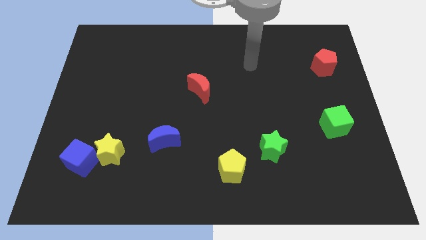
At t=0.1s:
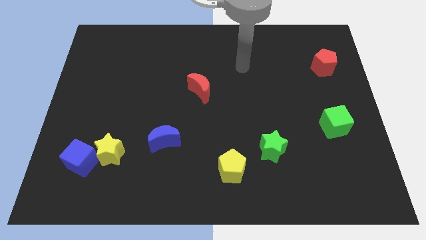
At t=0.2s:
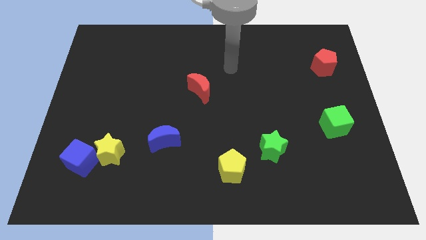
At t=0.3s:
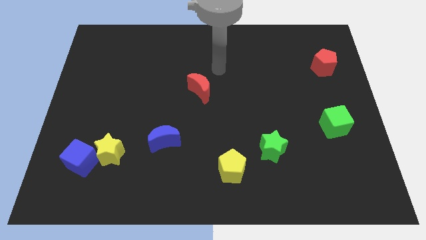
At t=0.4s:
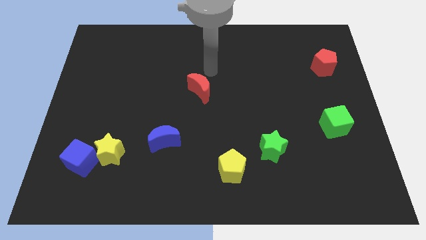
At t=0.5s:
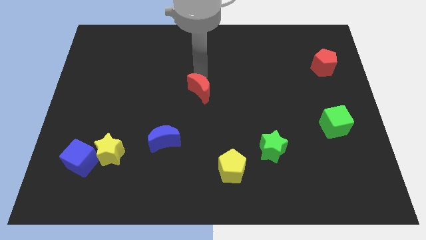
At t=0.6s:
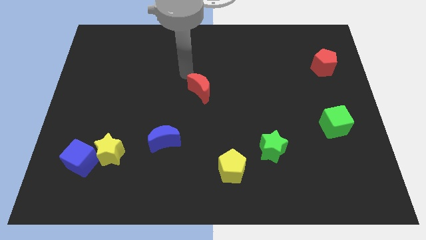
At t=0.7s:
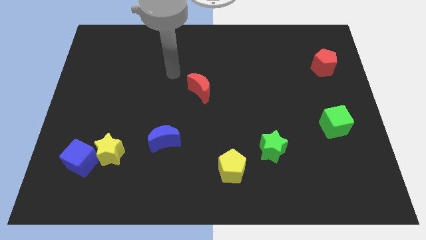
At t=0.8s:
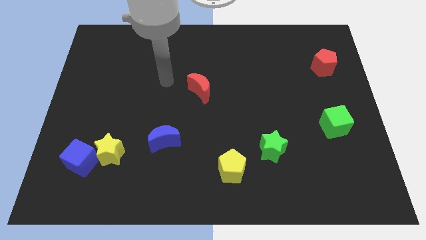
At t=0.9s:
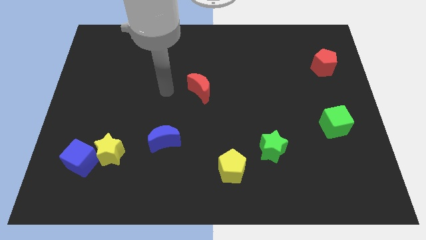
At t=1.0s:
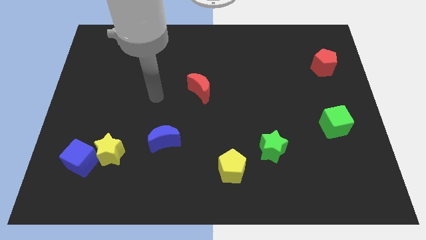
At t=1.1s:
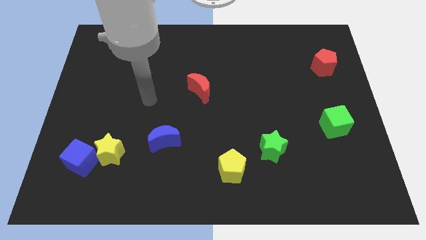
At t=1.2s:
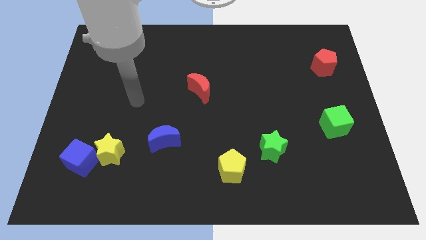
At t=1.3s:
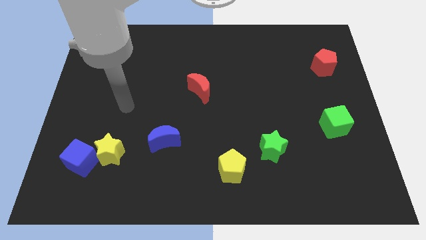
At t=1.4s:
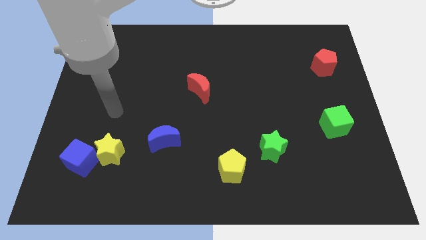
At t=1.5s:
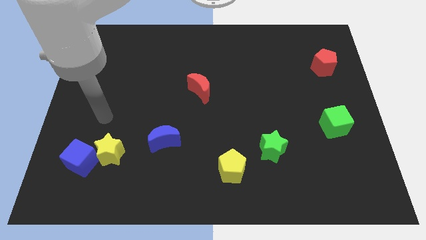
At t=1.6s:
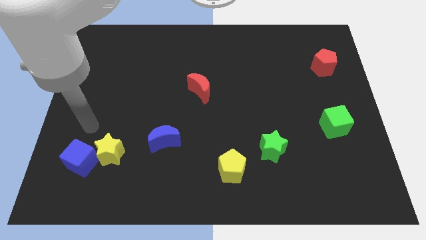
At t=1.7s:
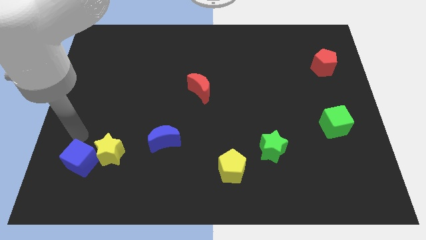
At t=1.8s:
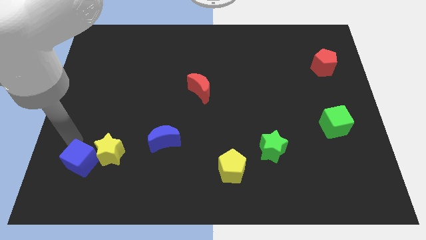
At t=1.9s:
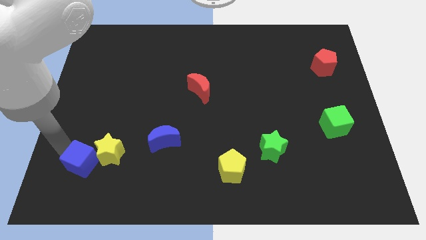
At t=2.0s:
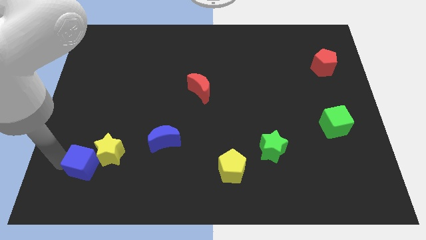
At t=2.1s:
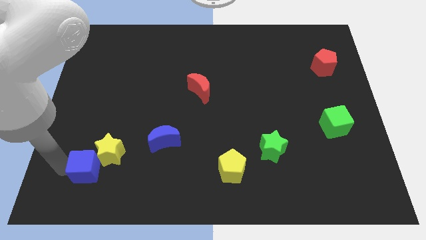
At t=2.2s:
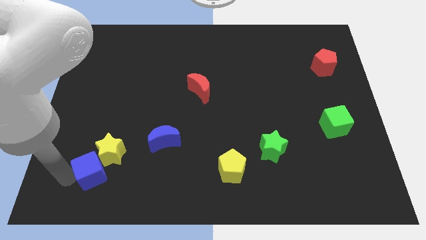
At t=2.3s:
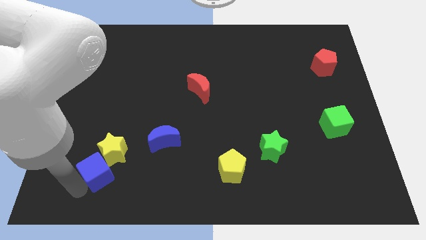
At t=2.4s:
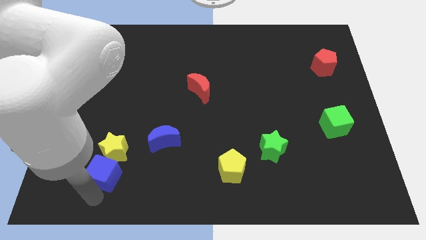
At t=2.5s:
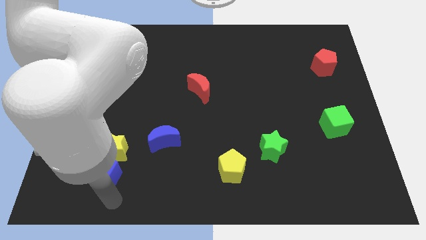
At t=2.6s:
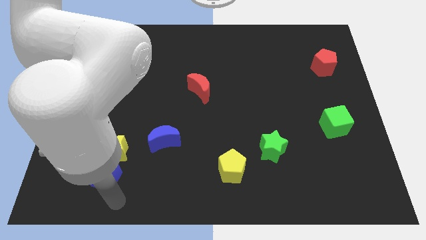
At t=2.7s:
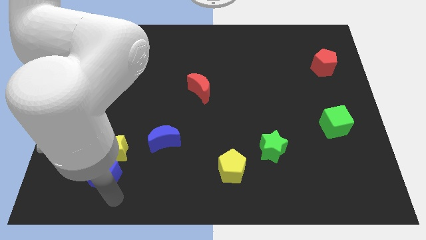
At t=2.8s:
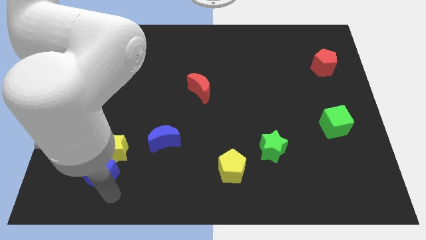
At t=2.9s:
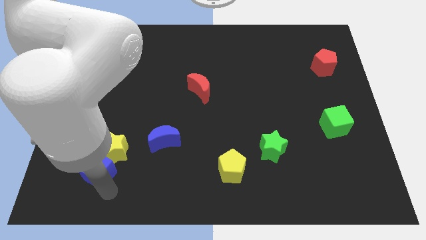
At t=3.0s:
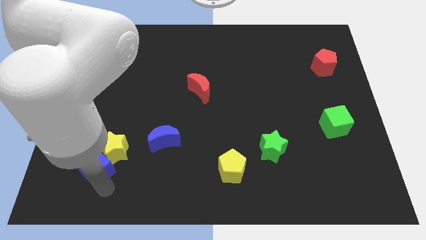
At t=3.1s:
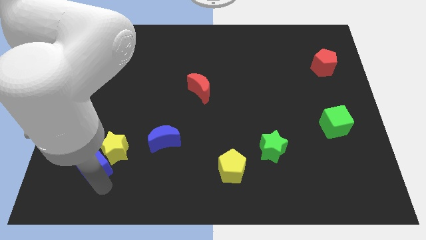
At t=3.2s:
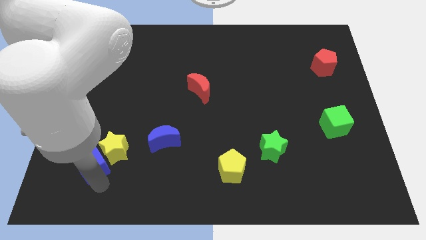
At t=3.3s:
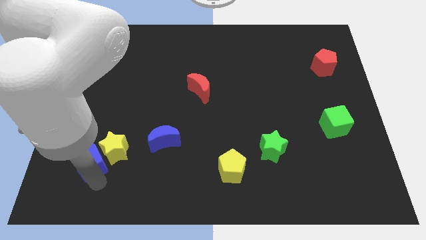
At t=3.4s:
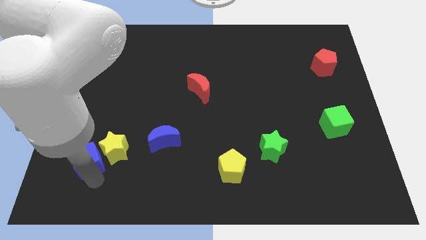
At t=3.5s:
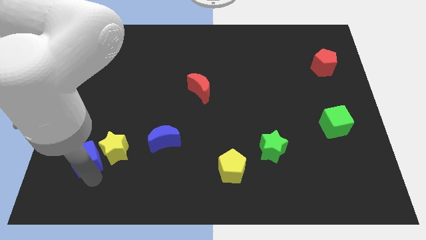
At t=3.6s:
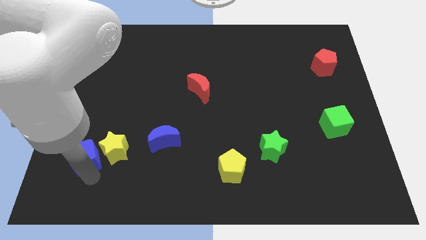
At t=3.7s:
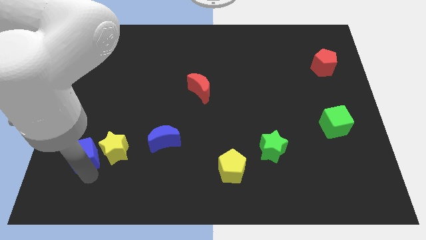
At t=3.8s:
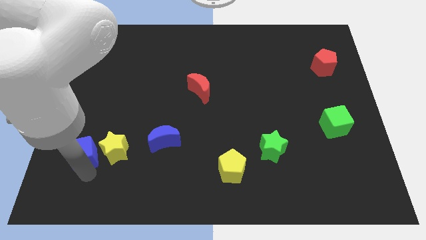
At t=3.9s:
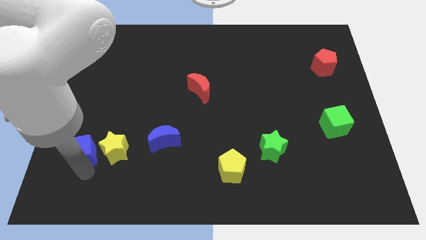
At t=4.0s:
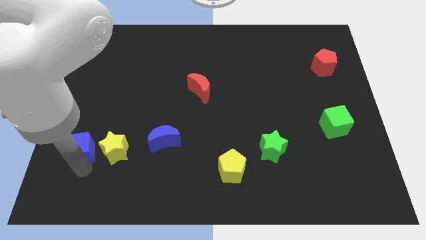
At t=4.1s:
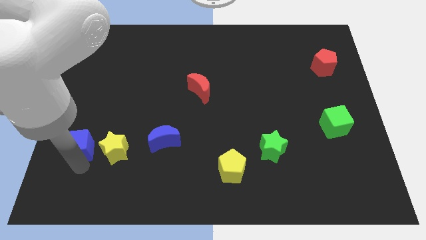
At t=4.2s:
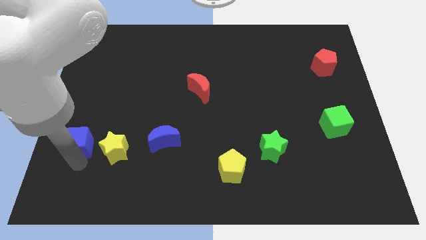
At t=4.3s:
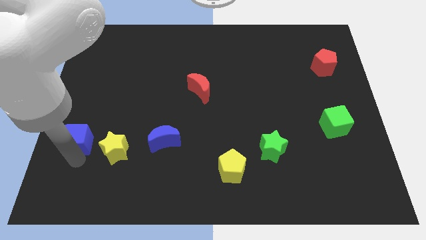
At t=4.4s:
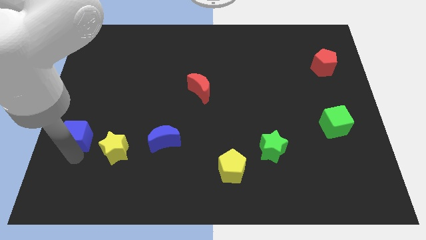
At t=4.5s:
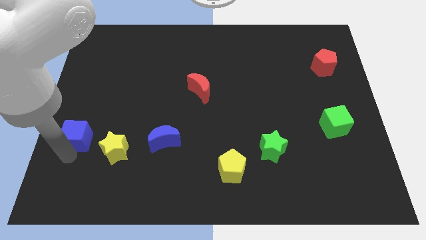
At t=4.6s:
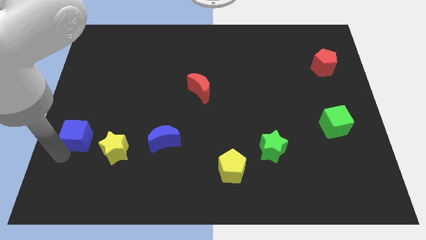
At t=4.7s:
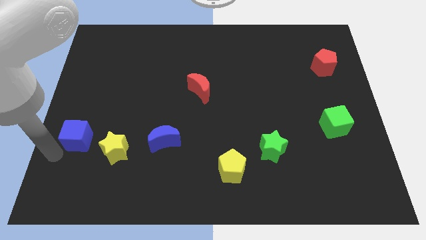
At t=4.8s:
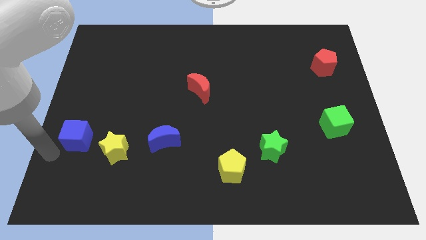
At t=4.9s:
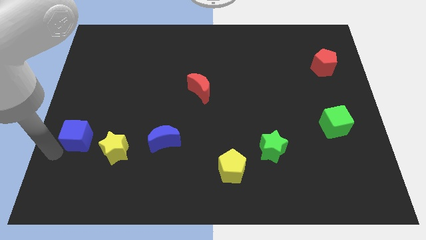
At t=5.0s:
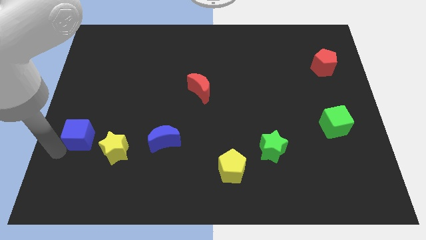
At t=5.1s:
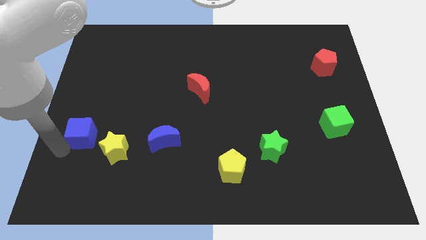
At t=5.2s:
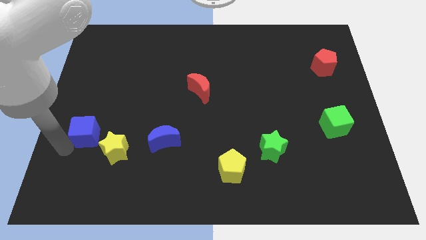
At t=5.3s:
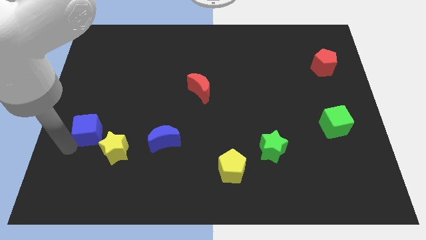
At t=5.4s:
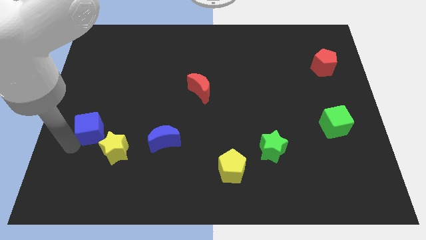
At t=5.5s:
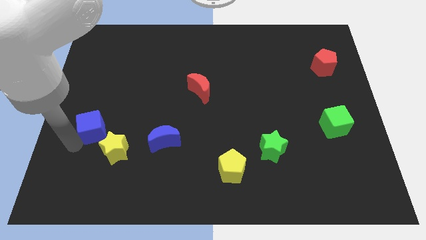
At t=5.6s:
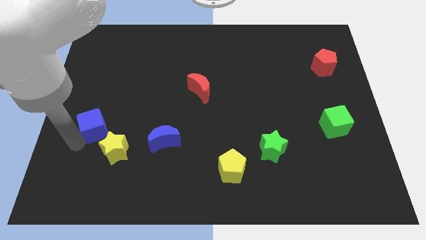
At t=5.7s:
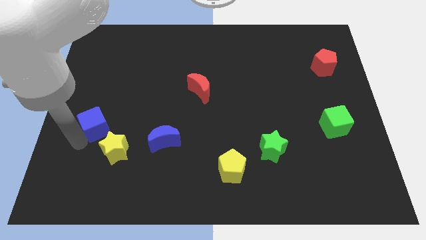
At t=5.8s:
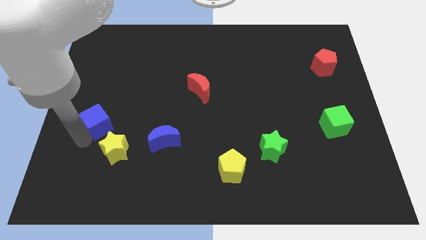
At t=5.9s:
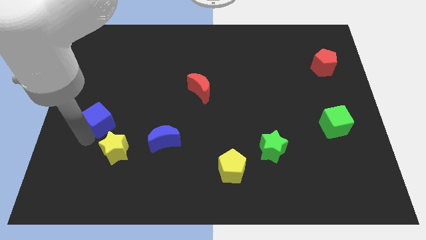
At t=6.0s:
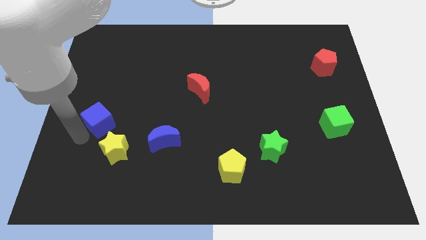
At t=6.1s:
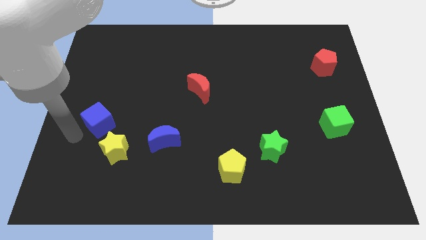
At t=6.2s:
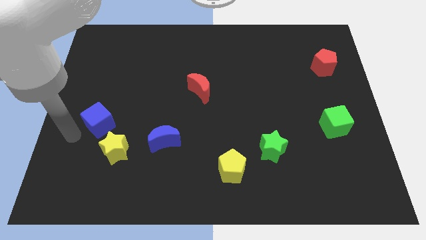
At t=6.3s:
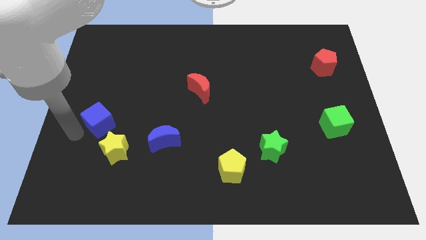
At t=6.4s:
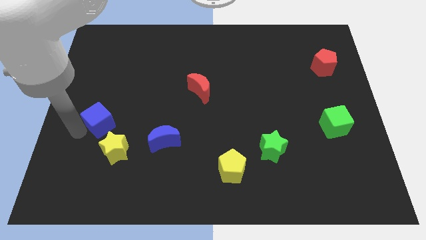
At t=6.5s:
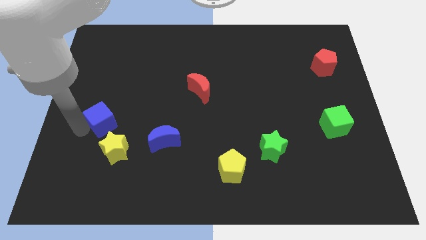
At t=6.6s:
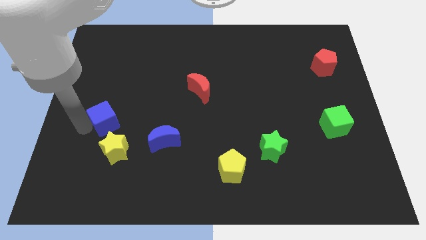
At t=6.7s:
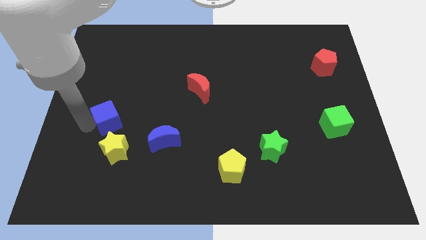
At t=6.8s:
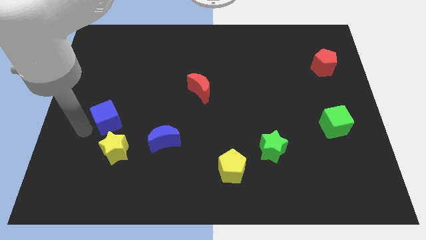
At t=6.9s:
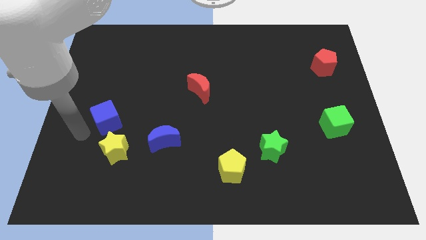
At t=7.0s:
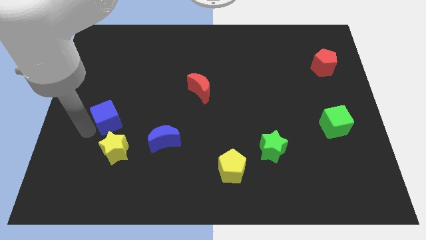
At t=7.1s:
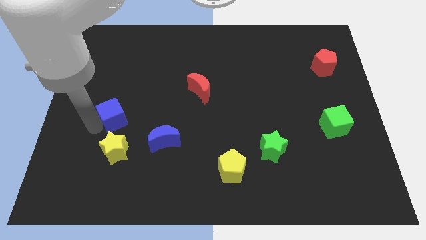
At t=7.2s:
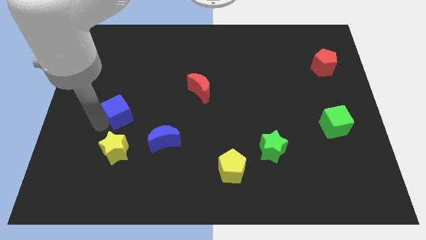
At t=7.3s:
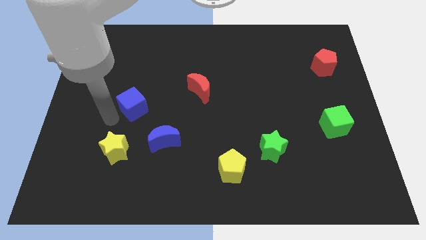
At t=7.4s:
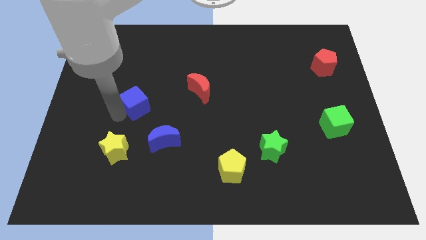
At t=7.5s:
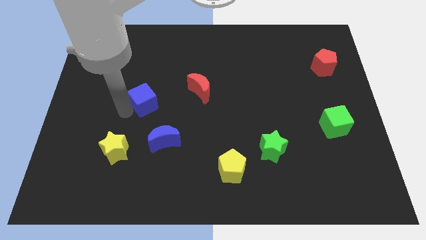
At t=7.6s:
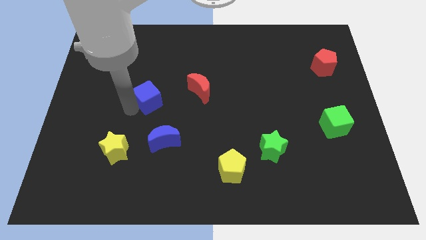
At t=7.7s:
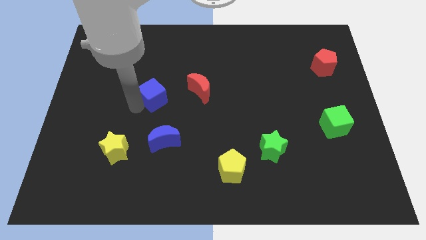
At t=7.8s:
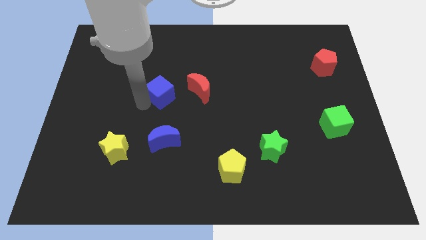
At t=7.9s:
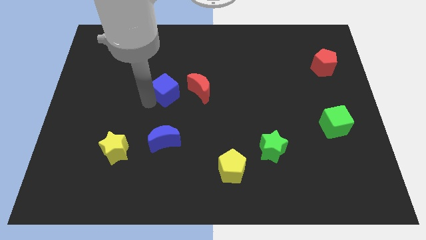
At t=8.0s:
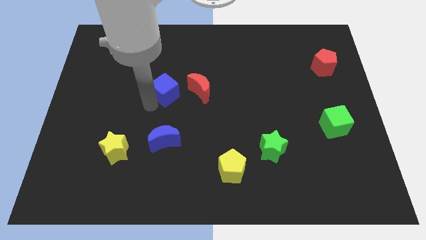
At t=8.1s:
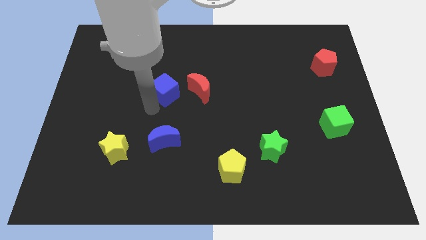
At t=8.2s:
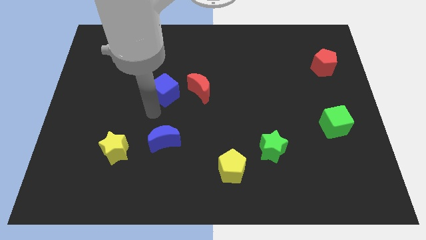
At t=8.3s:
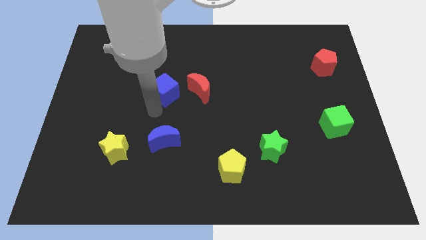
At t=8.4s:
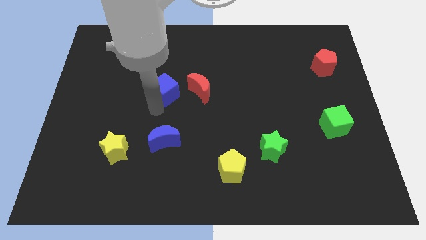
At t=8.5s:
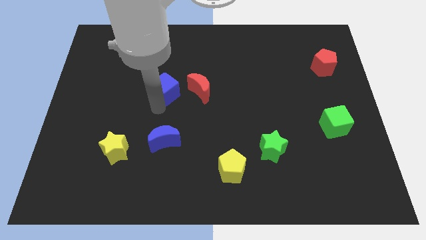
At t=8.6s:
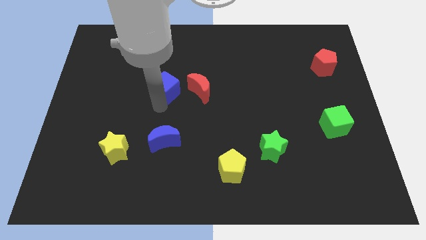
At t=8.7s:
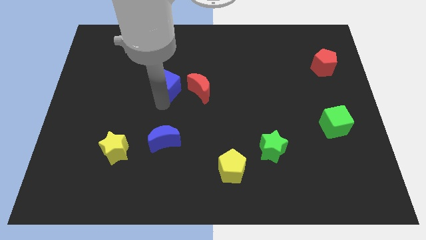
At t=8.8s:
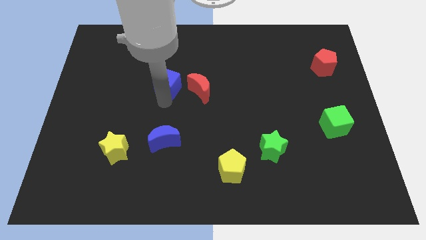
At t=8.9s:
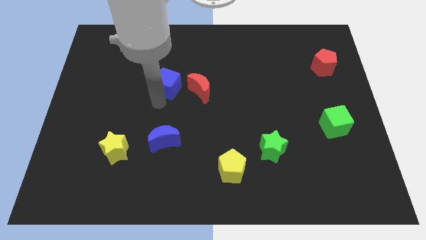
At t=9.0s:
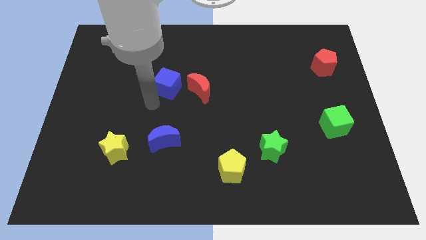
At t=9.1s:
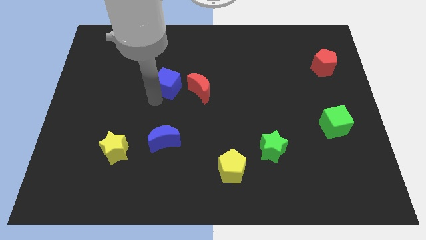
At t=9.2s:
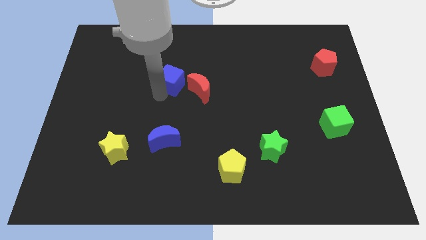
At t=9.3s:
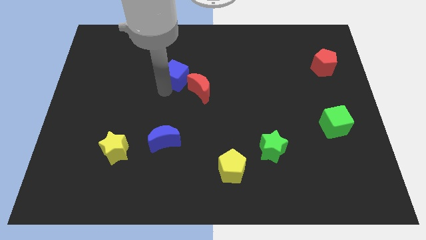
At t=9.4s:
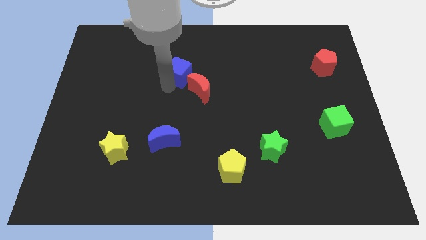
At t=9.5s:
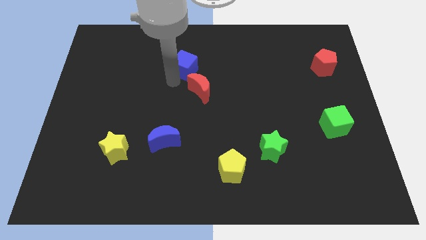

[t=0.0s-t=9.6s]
move the blue cube to the top of the red moon
